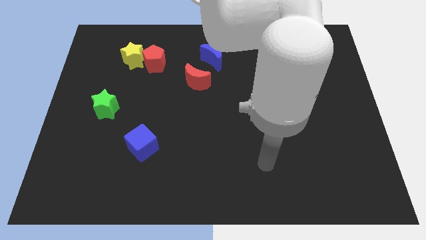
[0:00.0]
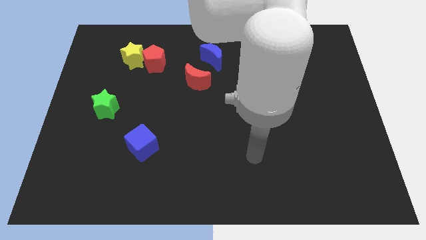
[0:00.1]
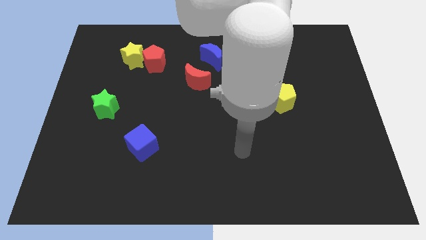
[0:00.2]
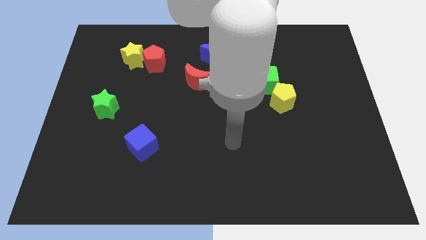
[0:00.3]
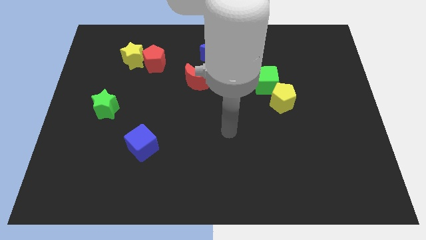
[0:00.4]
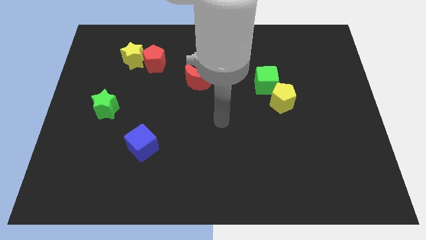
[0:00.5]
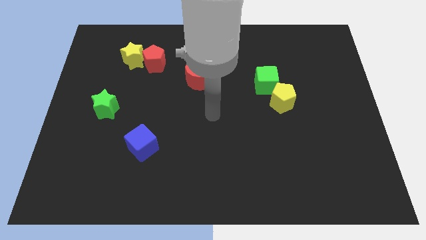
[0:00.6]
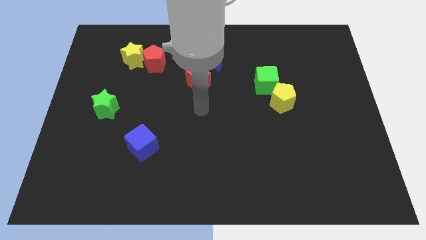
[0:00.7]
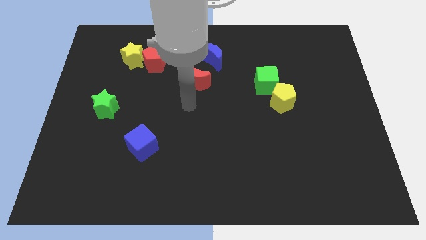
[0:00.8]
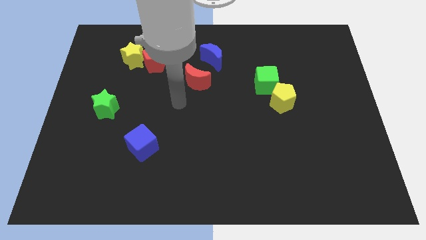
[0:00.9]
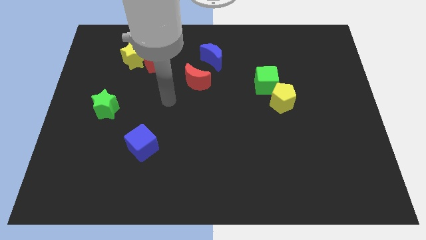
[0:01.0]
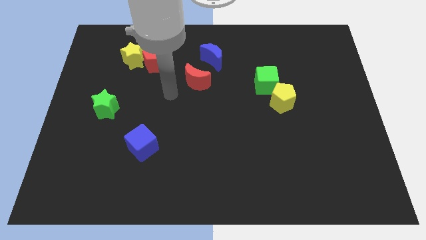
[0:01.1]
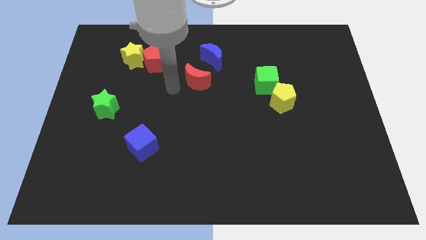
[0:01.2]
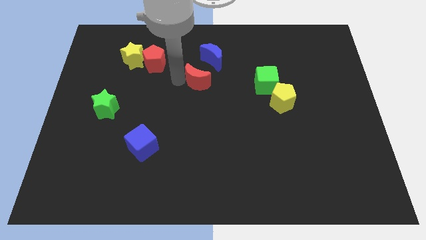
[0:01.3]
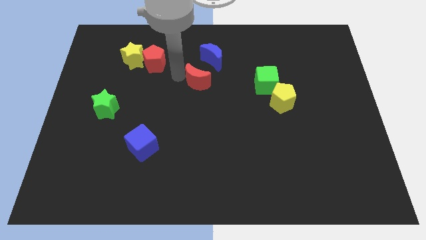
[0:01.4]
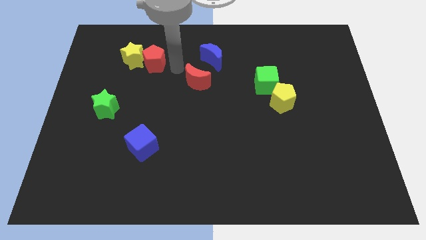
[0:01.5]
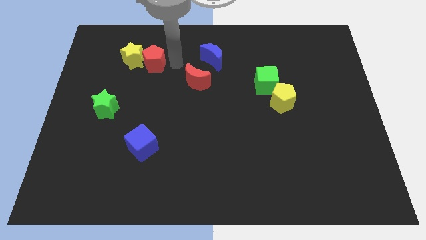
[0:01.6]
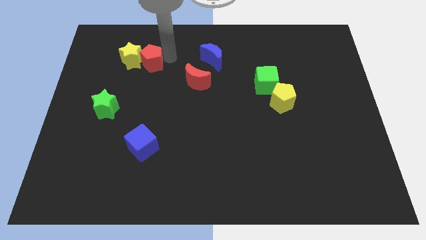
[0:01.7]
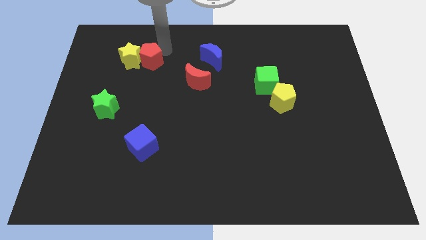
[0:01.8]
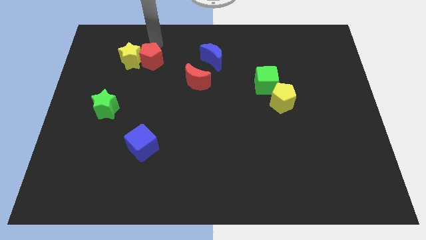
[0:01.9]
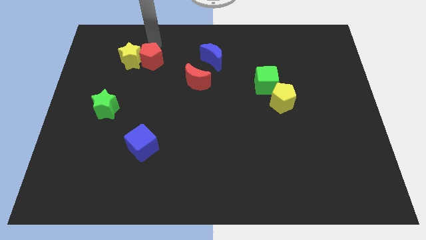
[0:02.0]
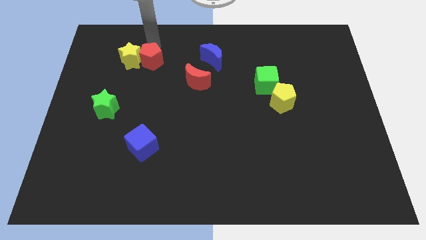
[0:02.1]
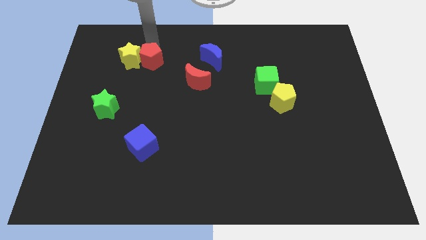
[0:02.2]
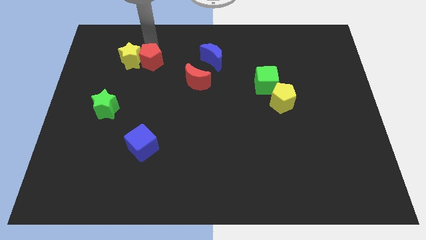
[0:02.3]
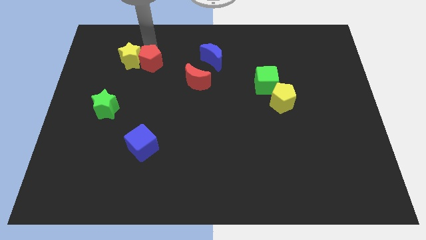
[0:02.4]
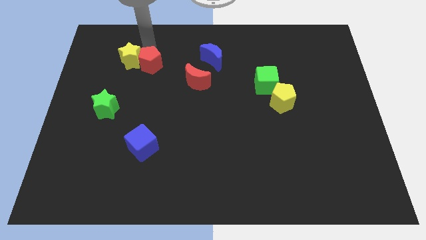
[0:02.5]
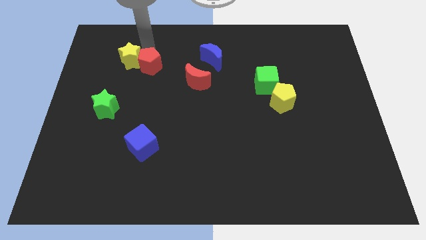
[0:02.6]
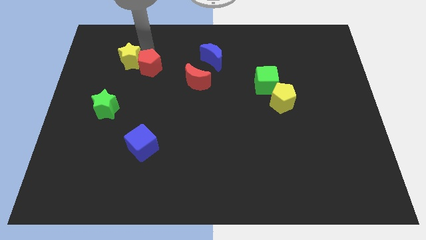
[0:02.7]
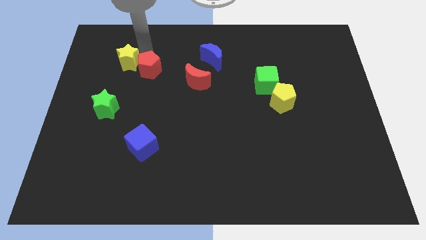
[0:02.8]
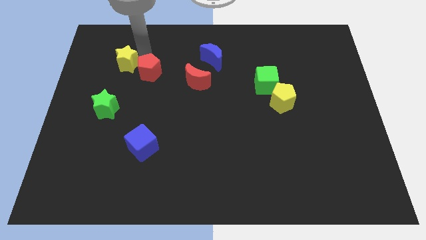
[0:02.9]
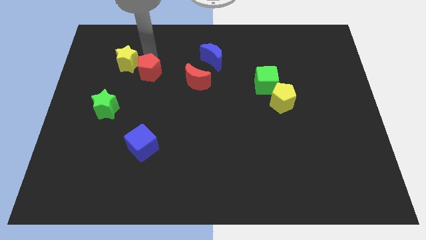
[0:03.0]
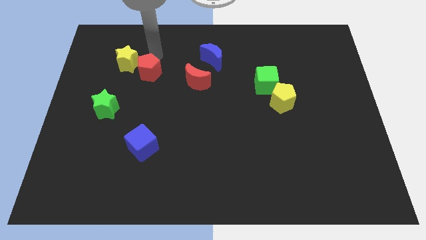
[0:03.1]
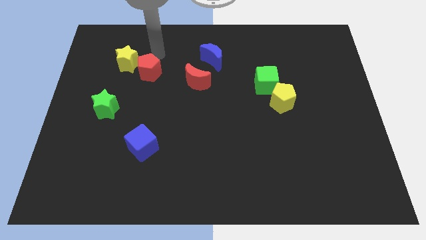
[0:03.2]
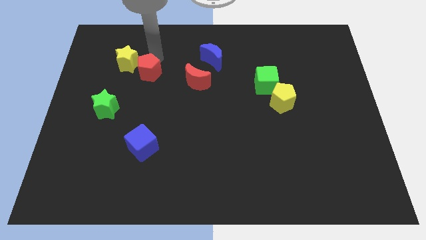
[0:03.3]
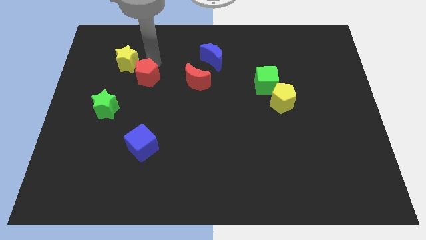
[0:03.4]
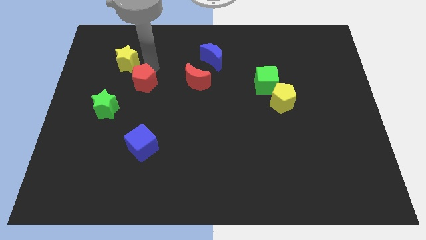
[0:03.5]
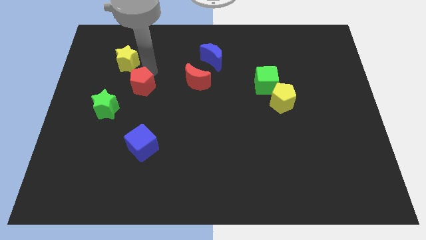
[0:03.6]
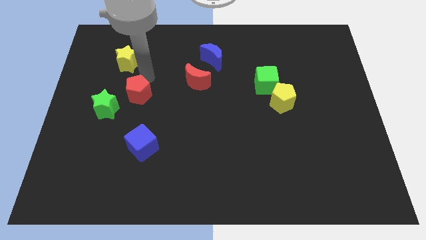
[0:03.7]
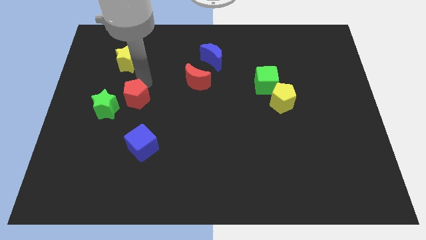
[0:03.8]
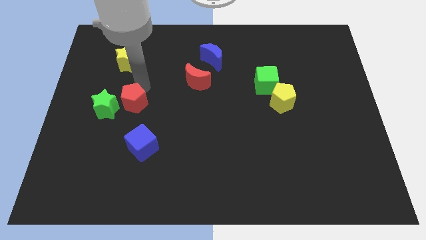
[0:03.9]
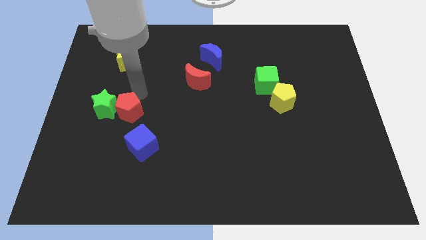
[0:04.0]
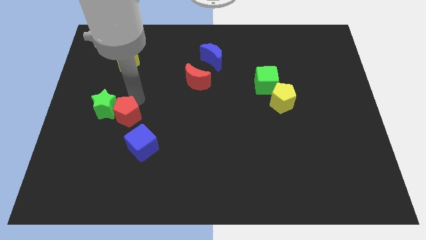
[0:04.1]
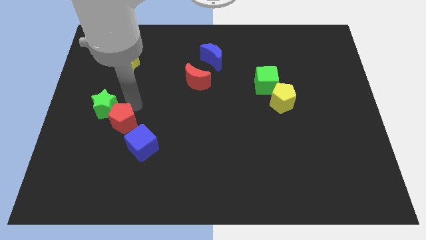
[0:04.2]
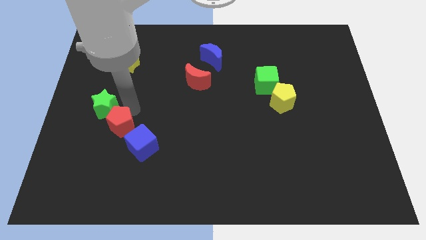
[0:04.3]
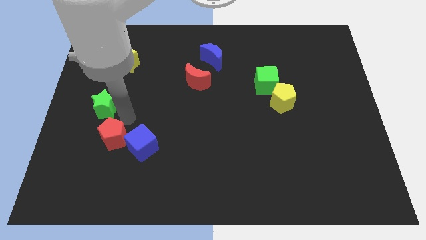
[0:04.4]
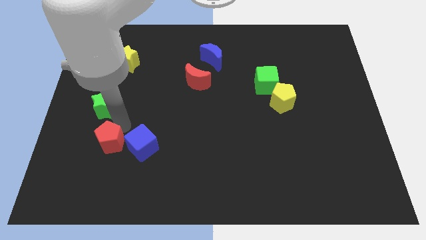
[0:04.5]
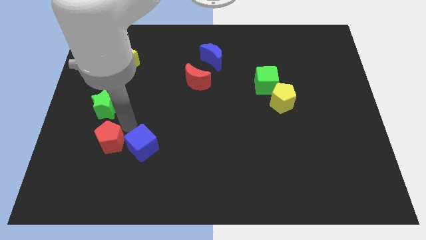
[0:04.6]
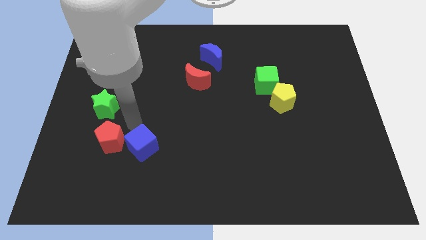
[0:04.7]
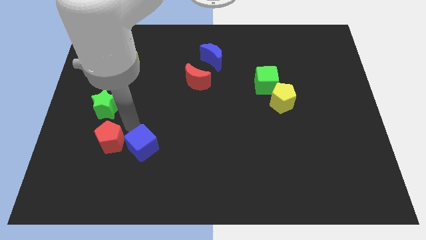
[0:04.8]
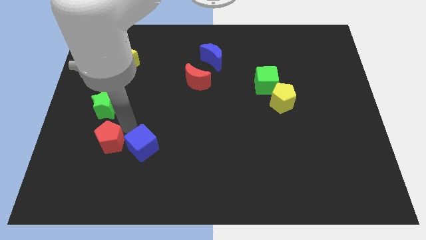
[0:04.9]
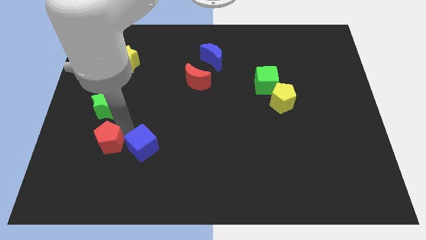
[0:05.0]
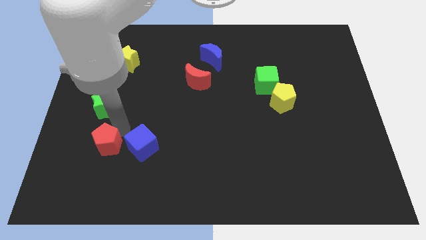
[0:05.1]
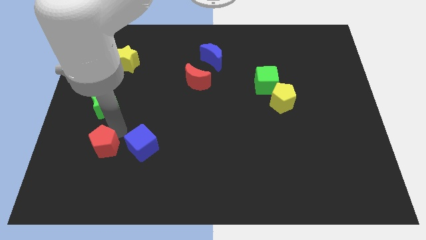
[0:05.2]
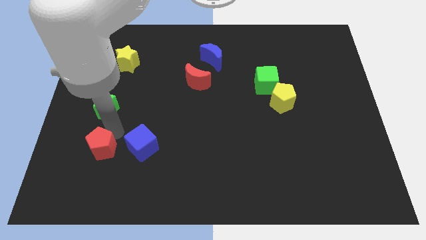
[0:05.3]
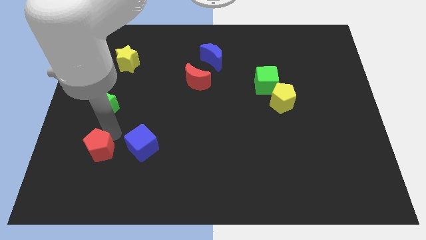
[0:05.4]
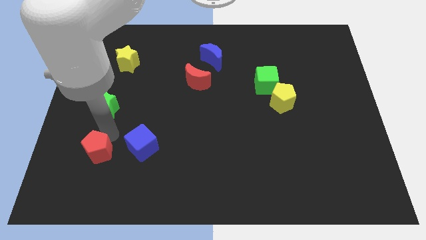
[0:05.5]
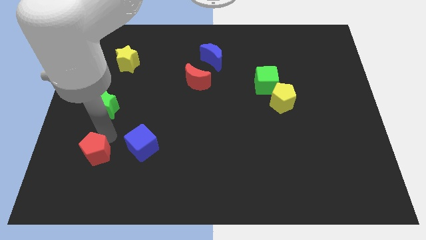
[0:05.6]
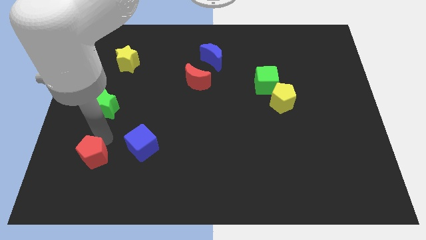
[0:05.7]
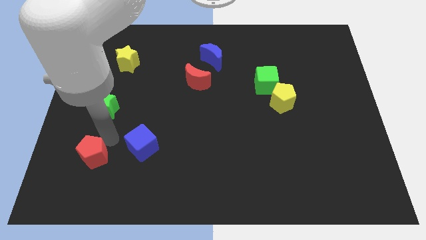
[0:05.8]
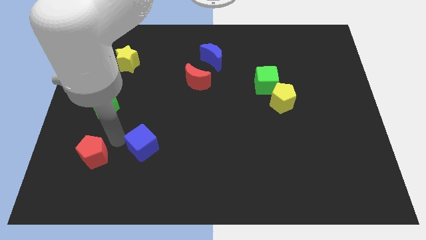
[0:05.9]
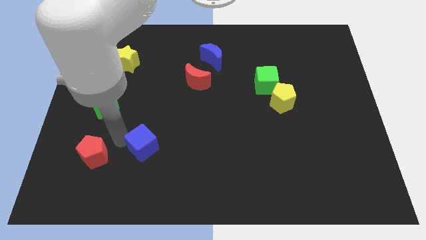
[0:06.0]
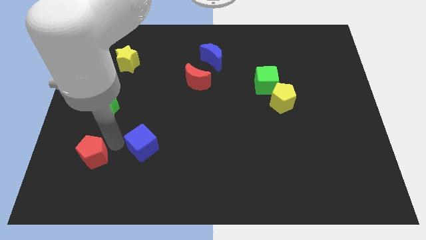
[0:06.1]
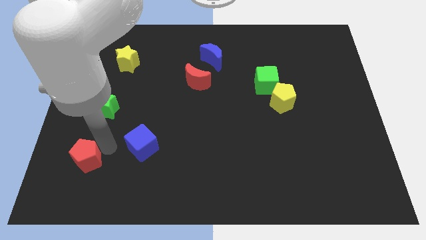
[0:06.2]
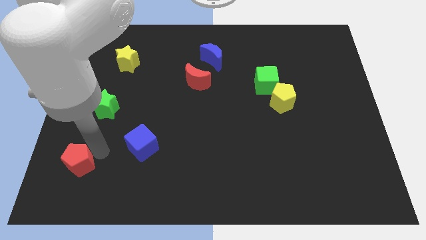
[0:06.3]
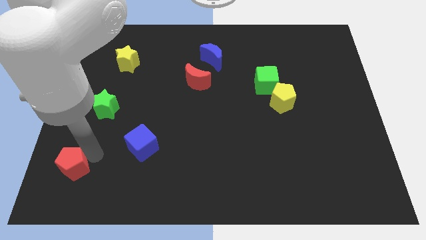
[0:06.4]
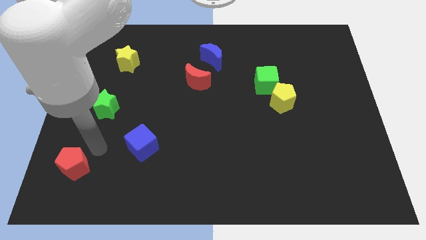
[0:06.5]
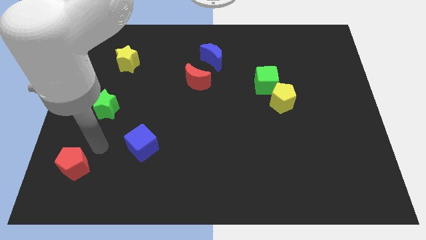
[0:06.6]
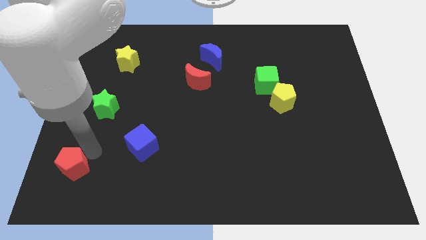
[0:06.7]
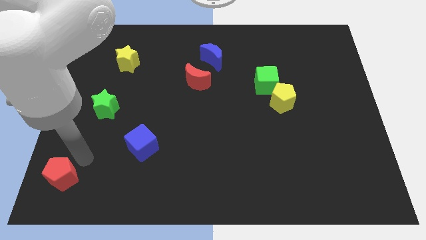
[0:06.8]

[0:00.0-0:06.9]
move the red pentagon to the lower left corner
